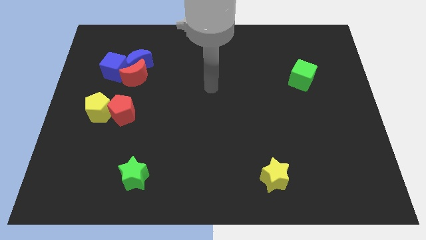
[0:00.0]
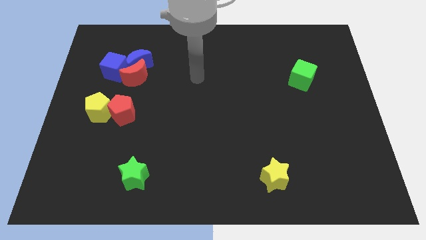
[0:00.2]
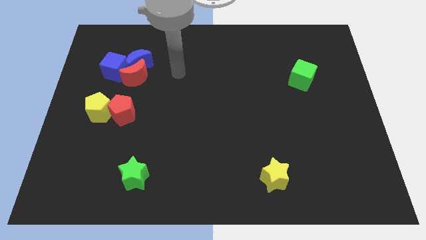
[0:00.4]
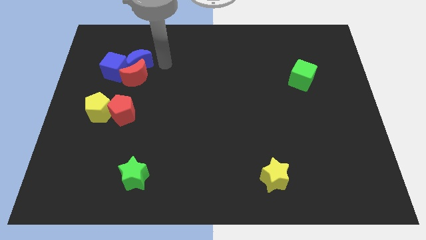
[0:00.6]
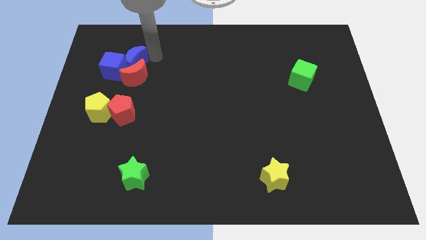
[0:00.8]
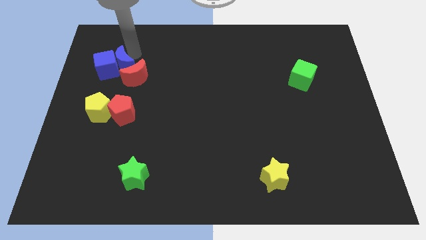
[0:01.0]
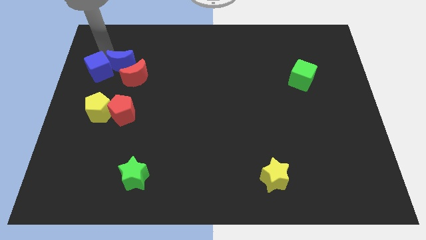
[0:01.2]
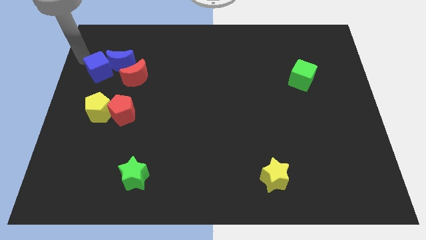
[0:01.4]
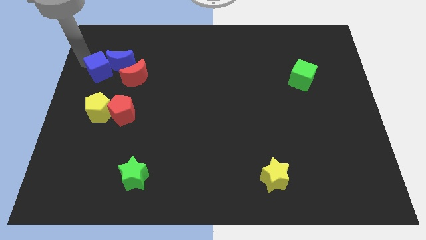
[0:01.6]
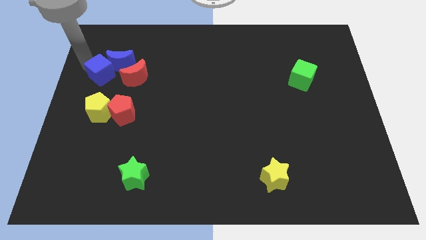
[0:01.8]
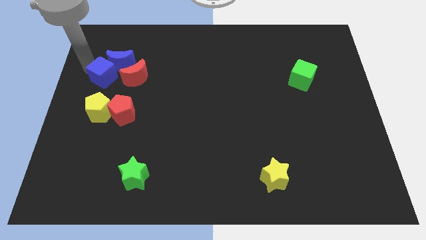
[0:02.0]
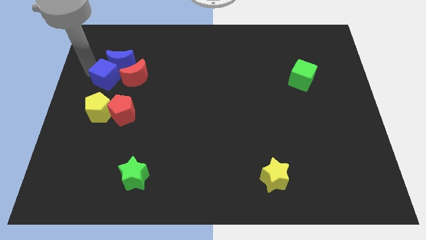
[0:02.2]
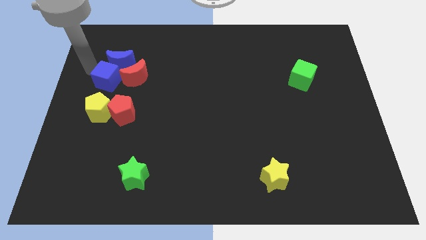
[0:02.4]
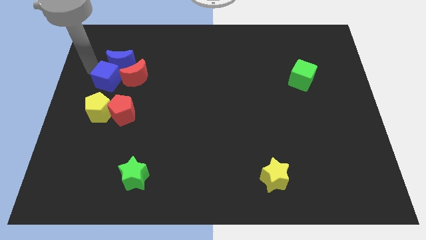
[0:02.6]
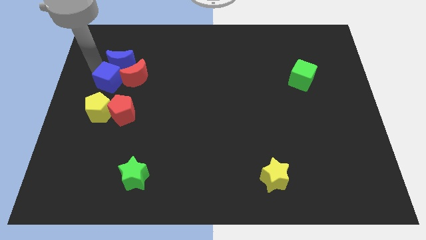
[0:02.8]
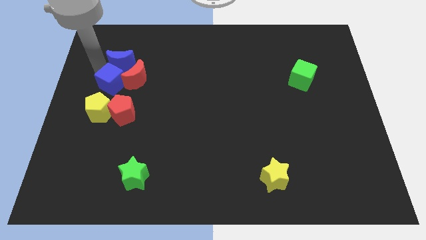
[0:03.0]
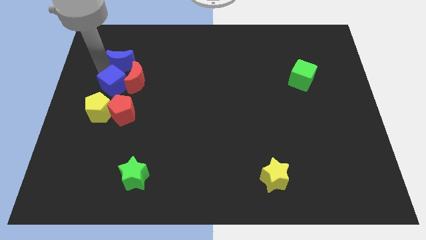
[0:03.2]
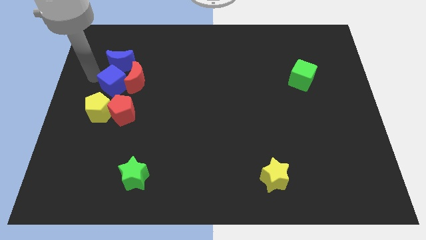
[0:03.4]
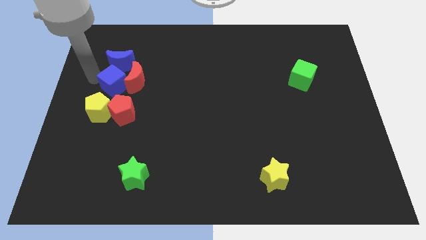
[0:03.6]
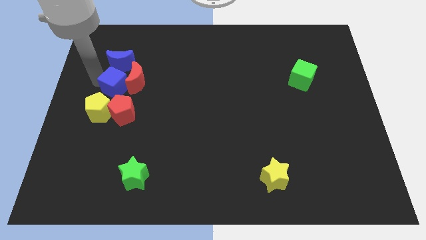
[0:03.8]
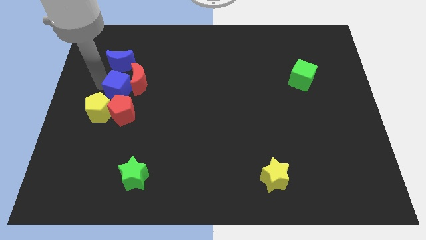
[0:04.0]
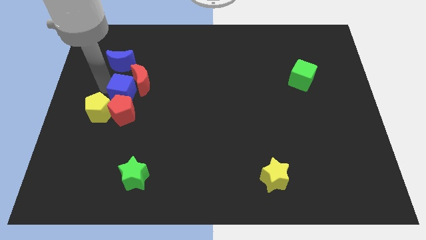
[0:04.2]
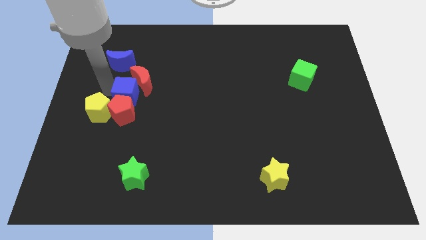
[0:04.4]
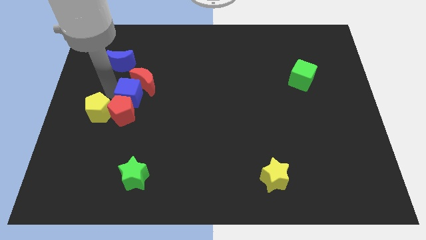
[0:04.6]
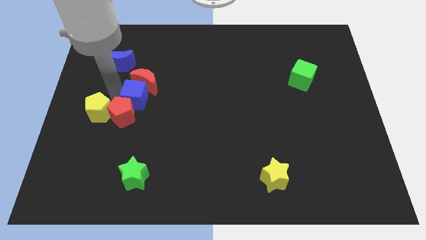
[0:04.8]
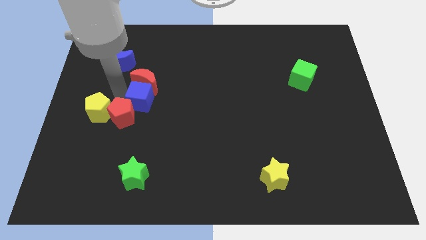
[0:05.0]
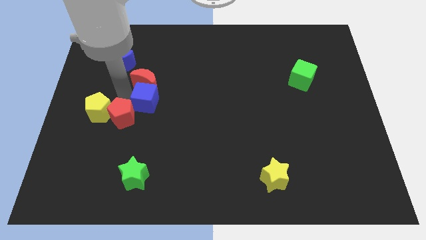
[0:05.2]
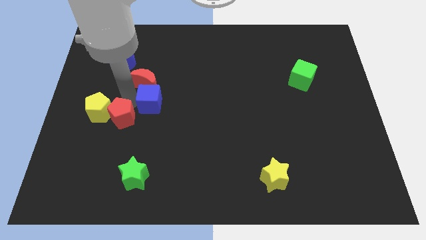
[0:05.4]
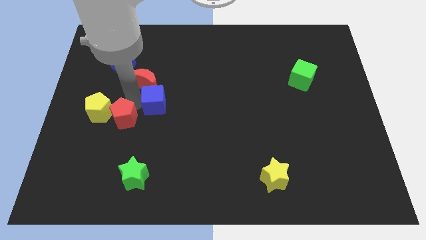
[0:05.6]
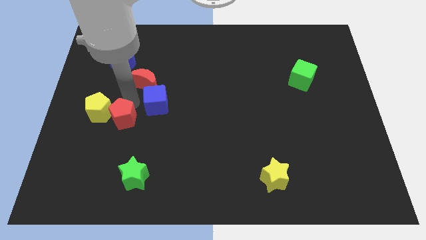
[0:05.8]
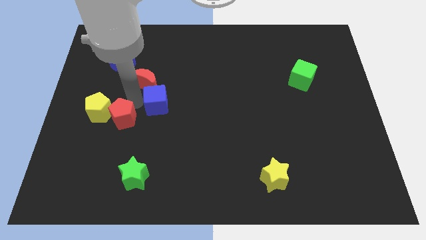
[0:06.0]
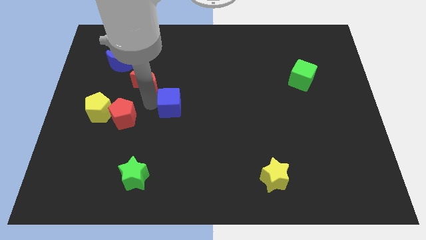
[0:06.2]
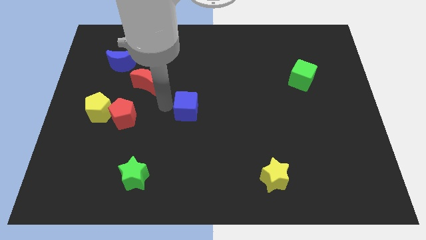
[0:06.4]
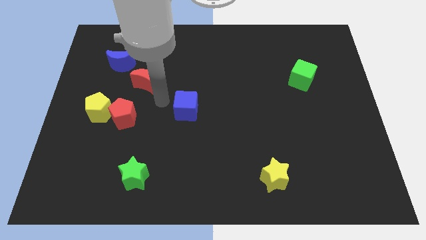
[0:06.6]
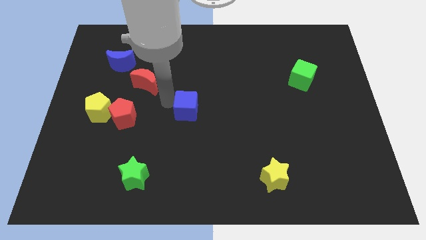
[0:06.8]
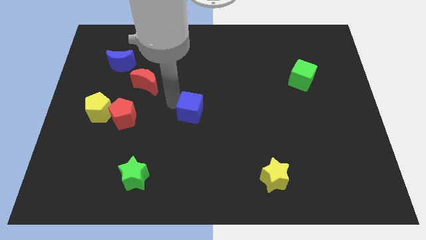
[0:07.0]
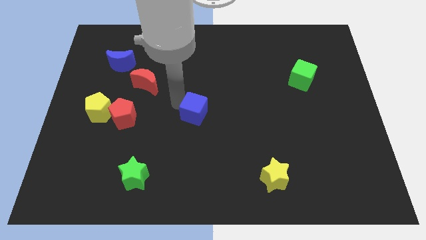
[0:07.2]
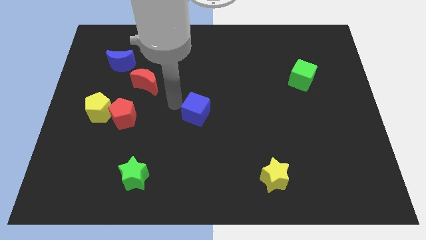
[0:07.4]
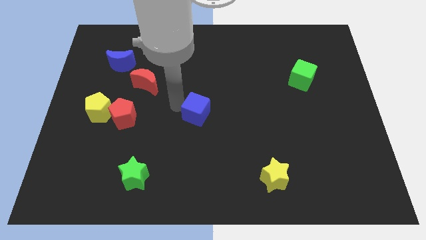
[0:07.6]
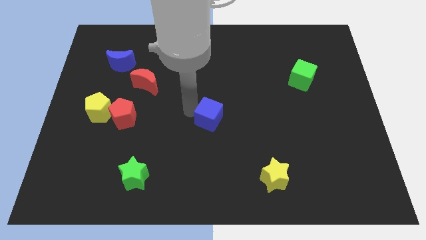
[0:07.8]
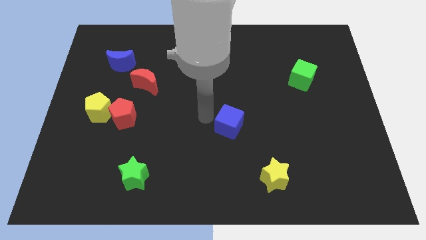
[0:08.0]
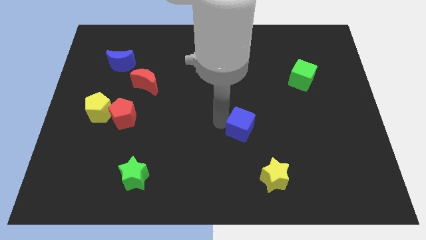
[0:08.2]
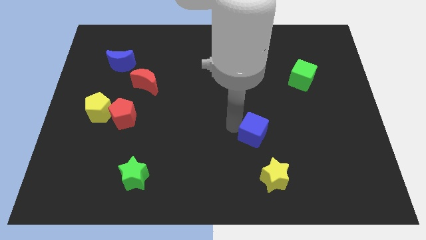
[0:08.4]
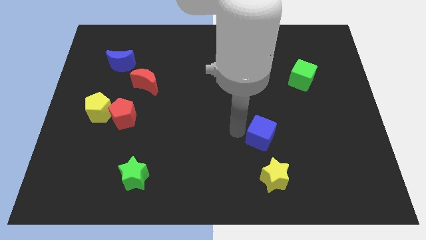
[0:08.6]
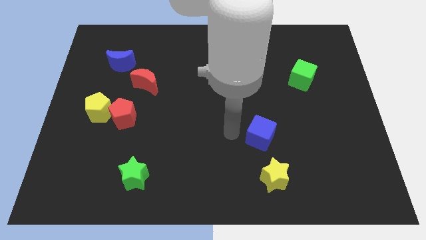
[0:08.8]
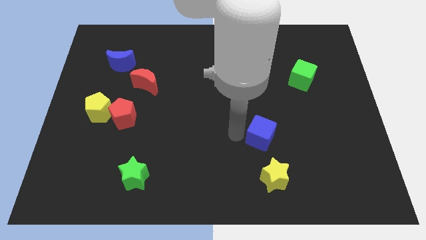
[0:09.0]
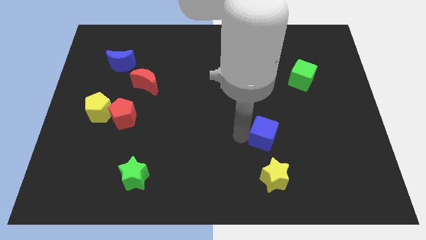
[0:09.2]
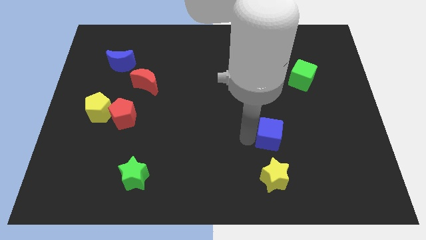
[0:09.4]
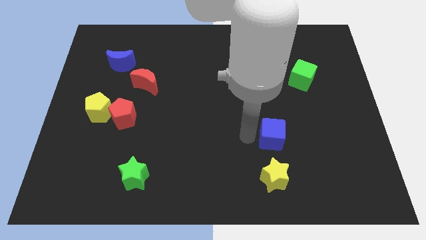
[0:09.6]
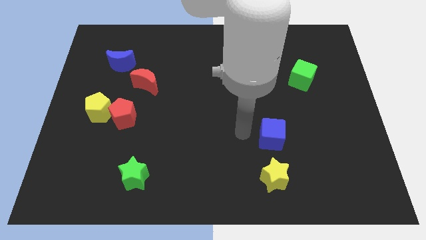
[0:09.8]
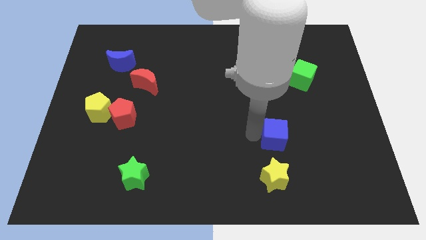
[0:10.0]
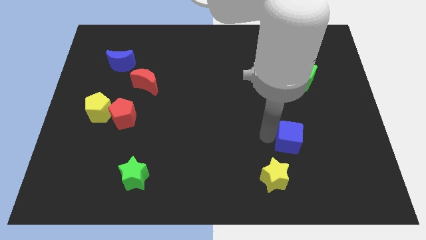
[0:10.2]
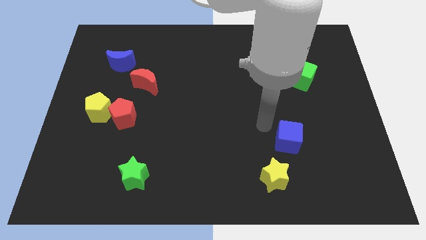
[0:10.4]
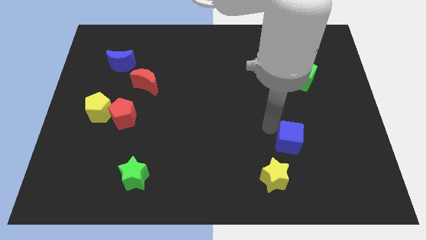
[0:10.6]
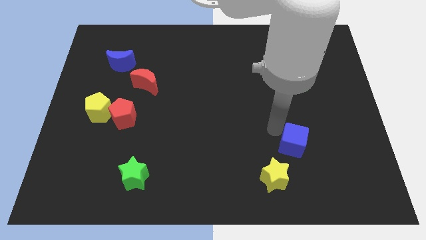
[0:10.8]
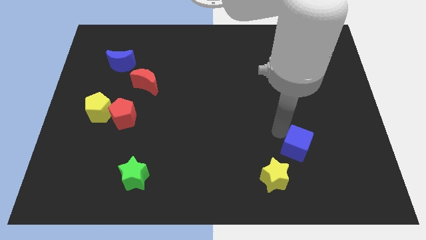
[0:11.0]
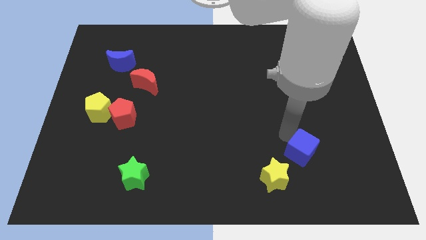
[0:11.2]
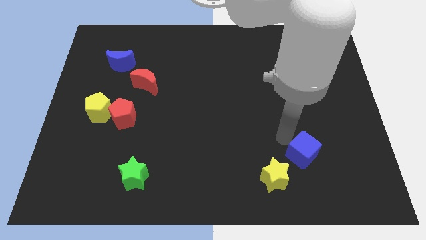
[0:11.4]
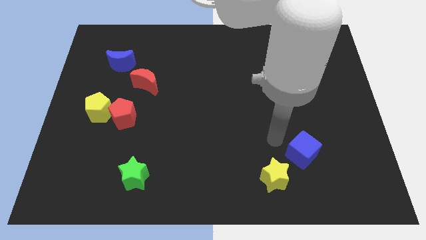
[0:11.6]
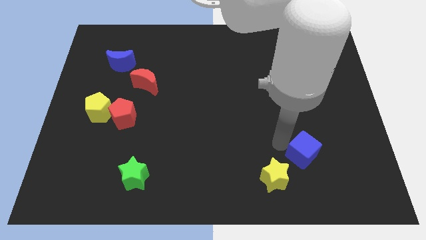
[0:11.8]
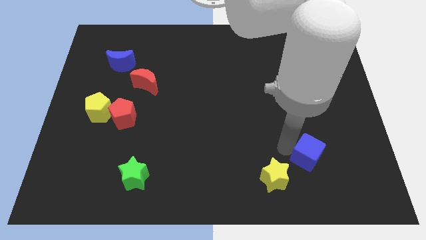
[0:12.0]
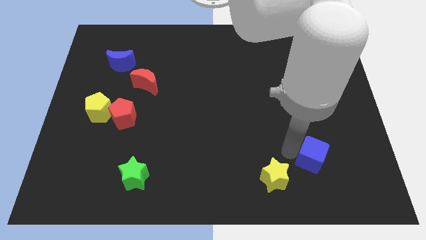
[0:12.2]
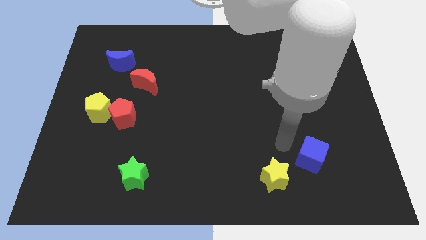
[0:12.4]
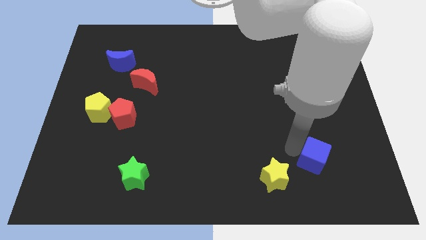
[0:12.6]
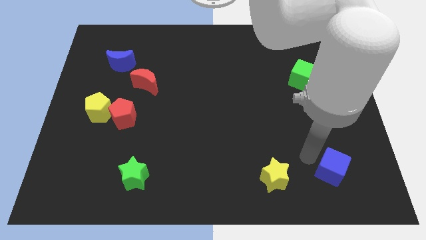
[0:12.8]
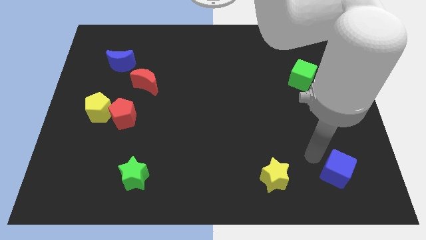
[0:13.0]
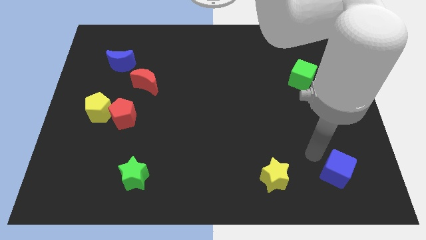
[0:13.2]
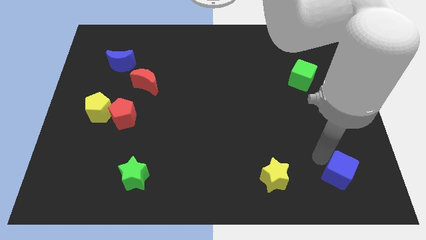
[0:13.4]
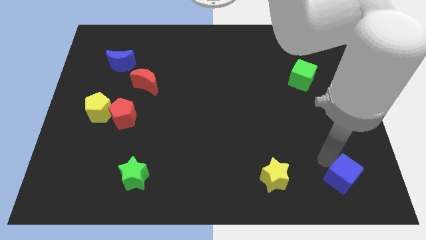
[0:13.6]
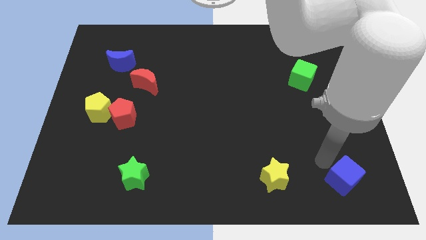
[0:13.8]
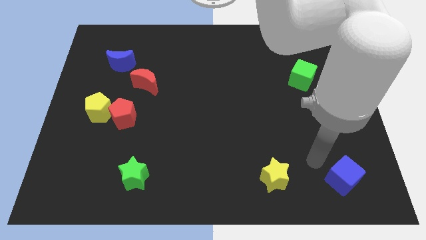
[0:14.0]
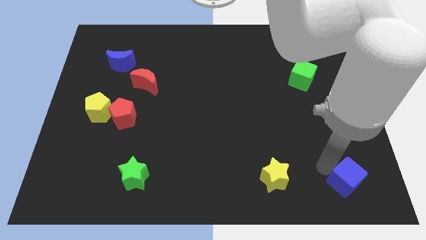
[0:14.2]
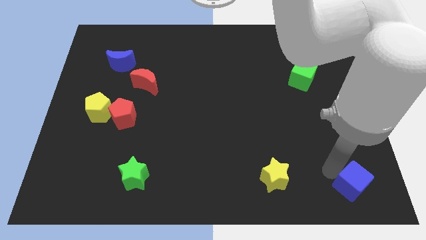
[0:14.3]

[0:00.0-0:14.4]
move the blue cube to the bottom right
